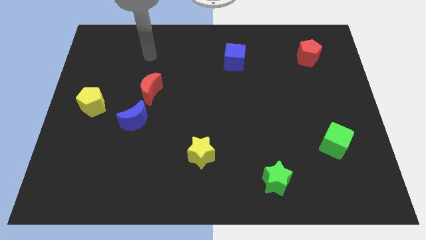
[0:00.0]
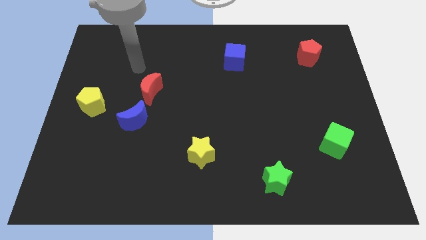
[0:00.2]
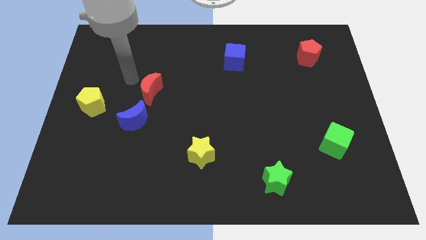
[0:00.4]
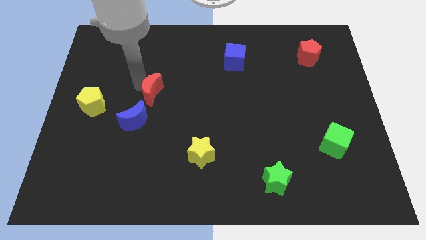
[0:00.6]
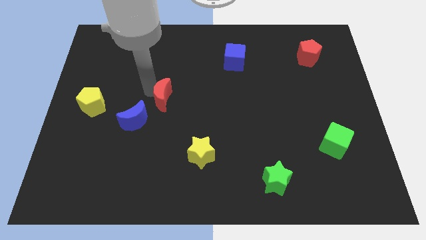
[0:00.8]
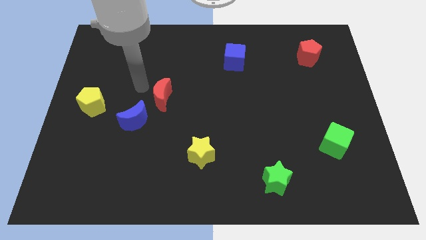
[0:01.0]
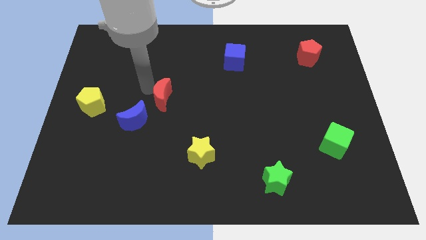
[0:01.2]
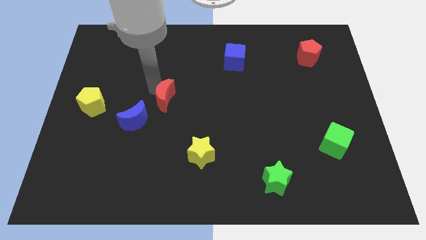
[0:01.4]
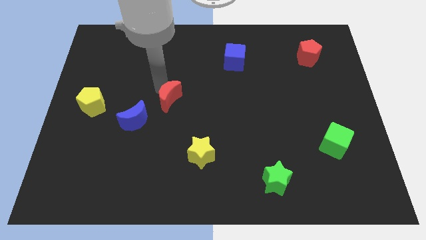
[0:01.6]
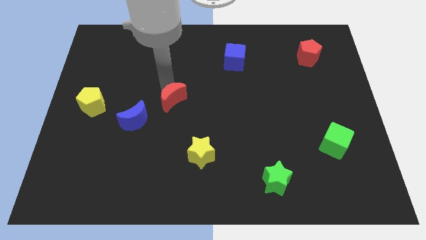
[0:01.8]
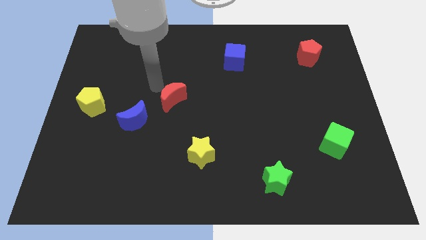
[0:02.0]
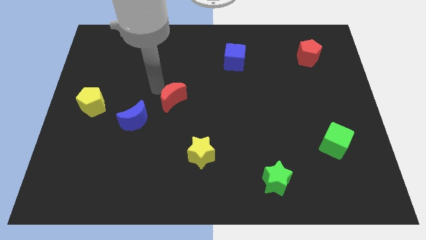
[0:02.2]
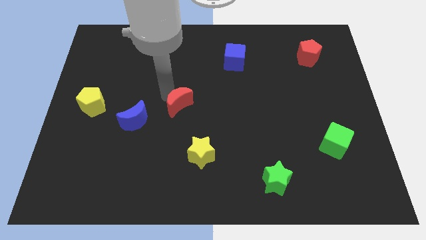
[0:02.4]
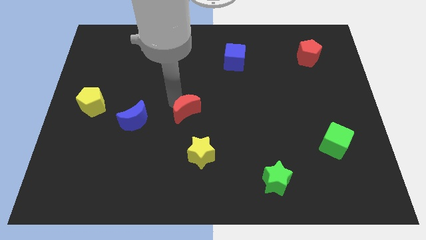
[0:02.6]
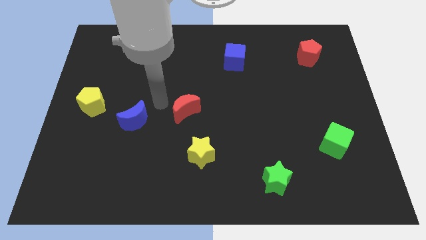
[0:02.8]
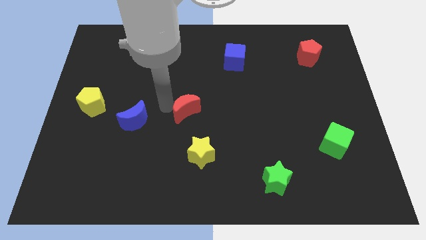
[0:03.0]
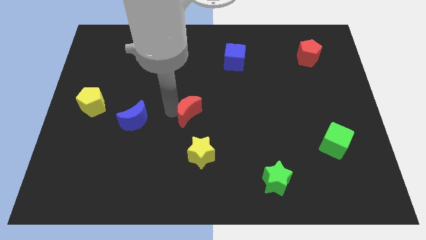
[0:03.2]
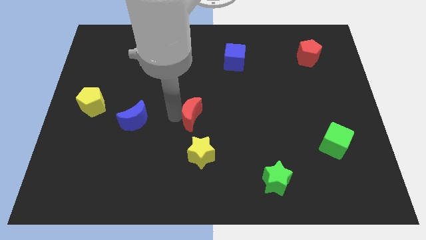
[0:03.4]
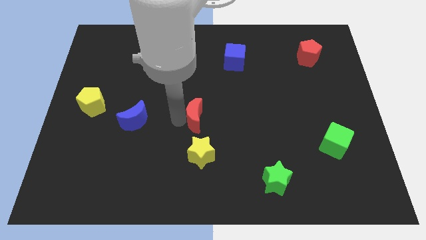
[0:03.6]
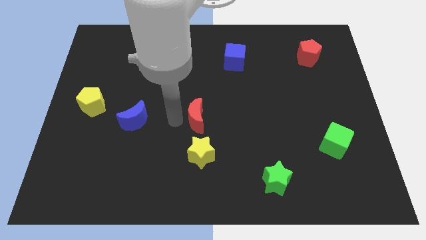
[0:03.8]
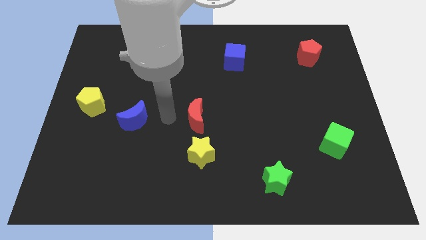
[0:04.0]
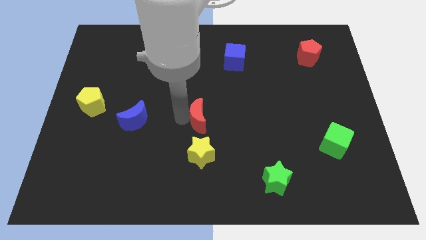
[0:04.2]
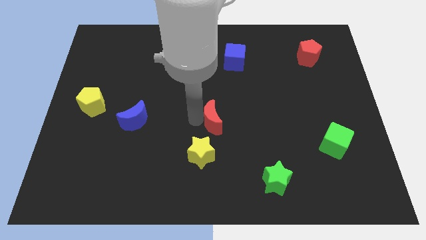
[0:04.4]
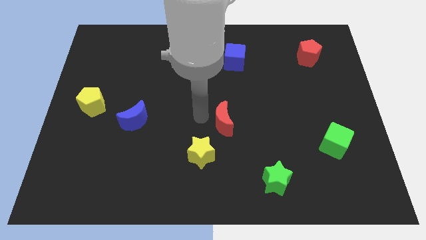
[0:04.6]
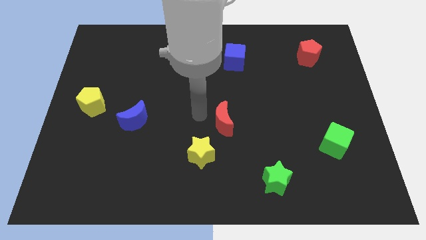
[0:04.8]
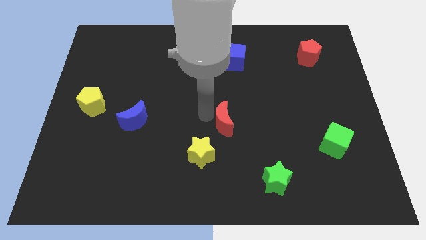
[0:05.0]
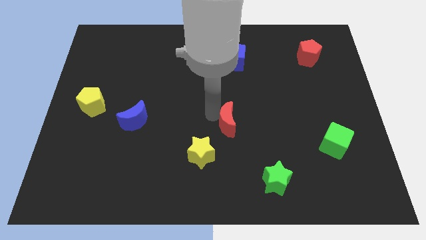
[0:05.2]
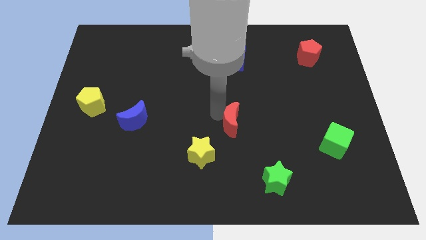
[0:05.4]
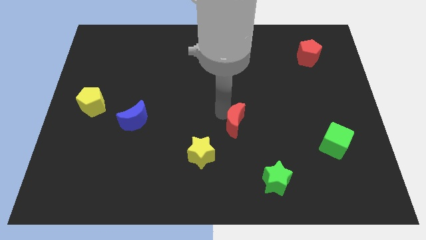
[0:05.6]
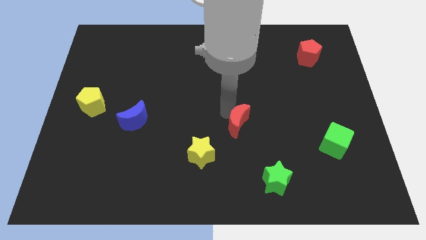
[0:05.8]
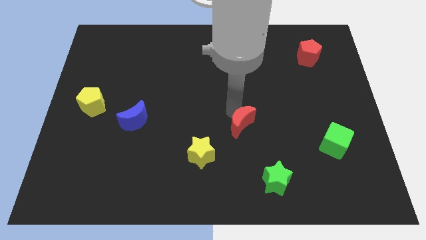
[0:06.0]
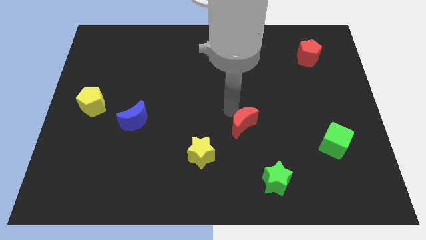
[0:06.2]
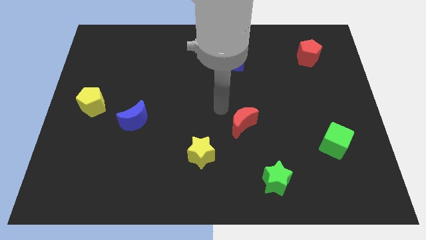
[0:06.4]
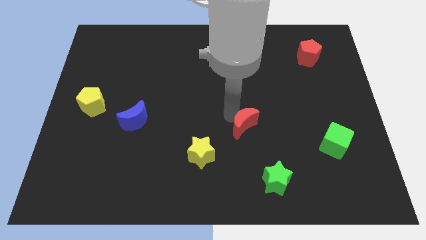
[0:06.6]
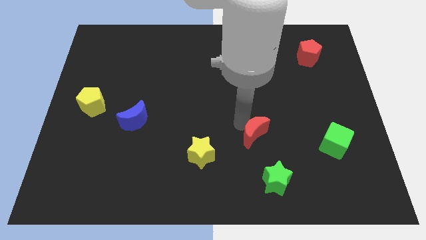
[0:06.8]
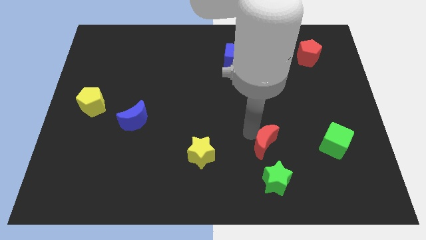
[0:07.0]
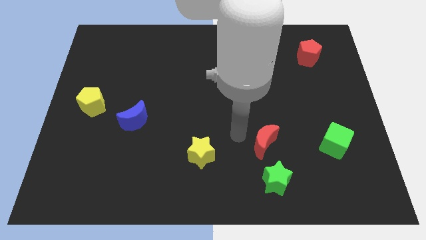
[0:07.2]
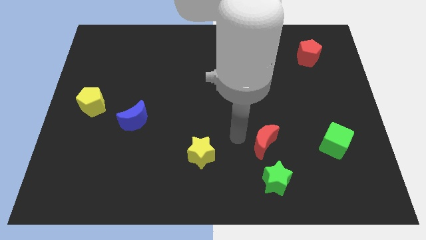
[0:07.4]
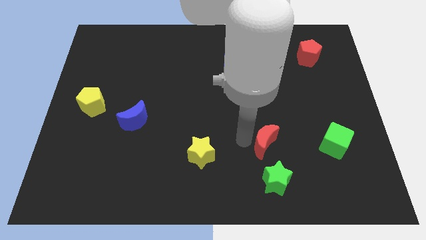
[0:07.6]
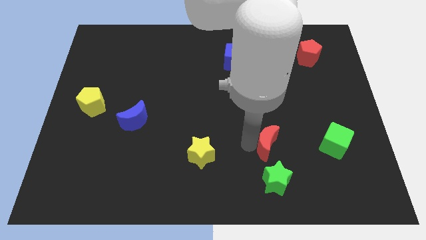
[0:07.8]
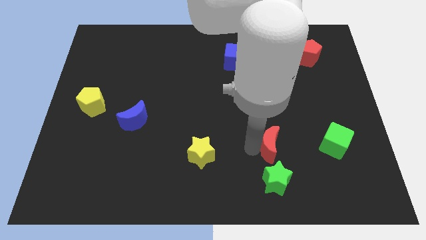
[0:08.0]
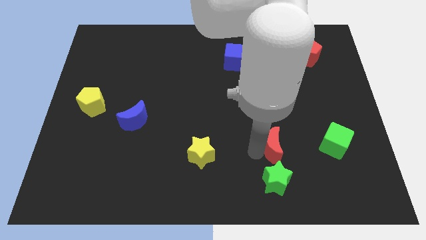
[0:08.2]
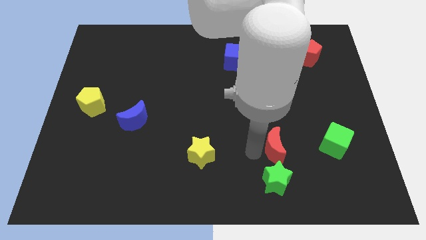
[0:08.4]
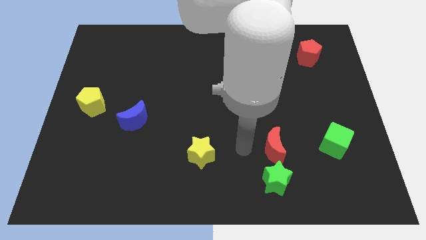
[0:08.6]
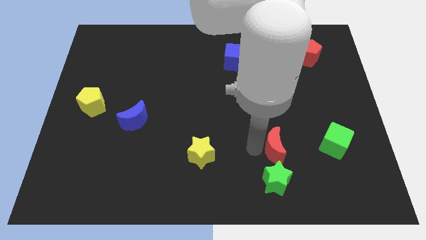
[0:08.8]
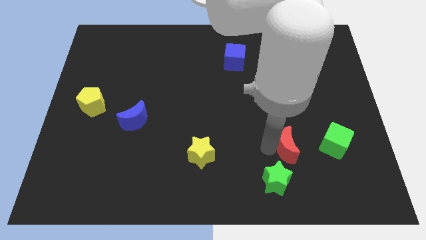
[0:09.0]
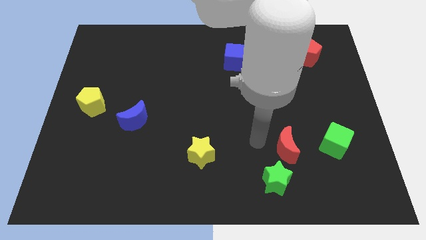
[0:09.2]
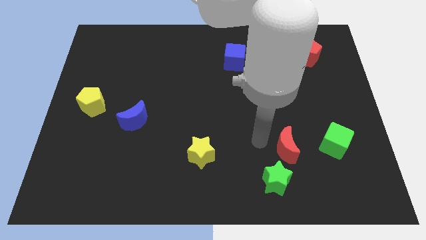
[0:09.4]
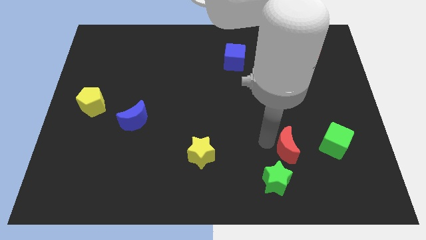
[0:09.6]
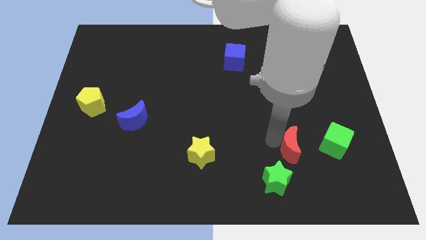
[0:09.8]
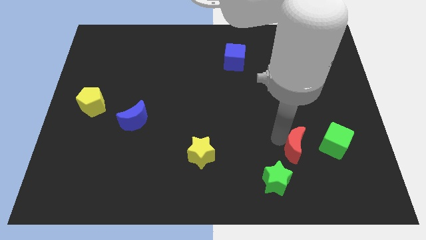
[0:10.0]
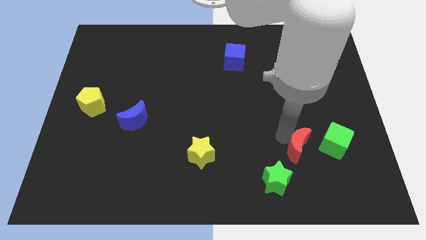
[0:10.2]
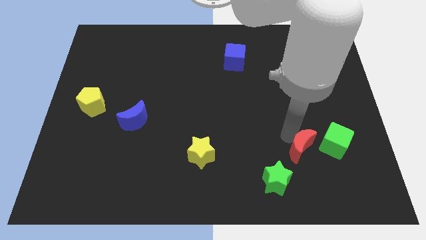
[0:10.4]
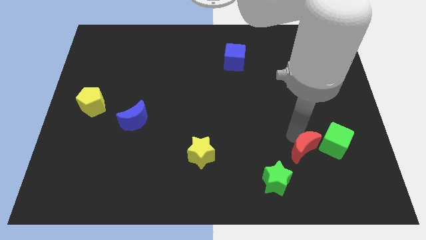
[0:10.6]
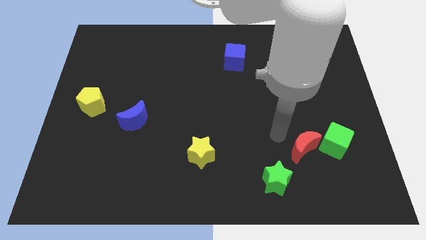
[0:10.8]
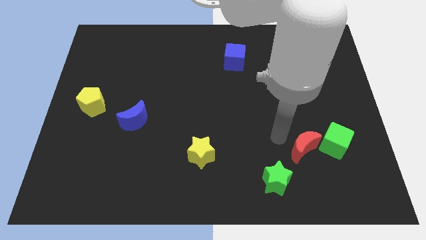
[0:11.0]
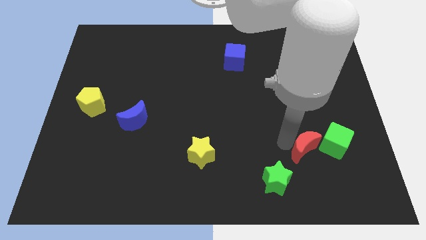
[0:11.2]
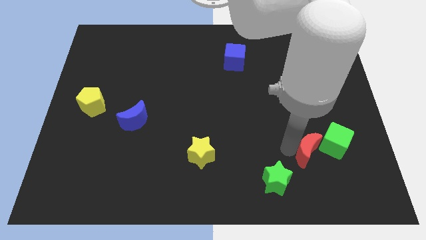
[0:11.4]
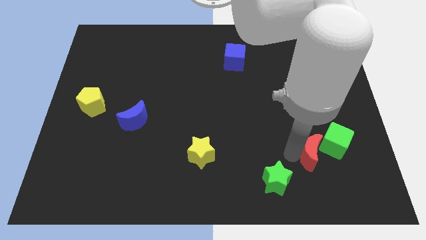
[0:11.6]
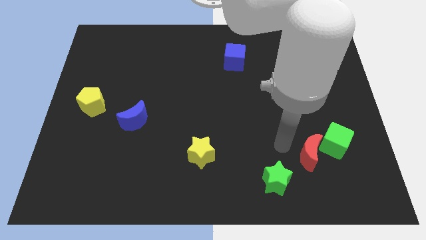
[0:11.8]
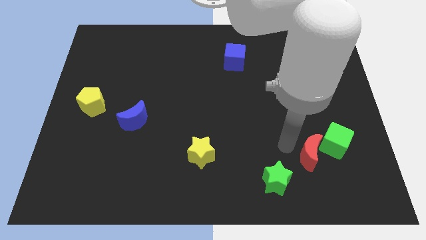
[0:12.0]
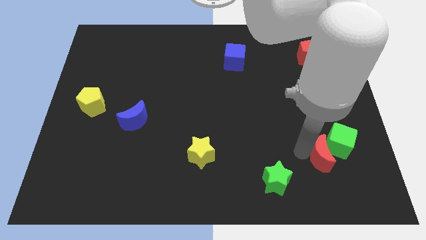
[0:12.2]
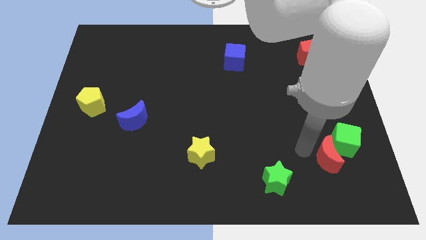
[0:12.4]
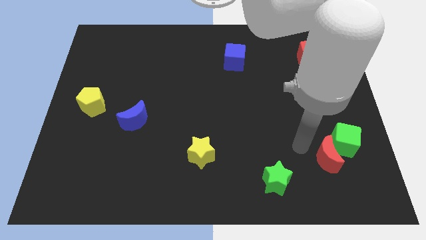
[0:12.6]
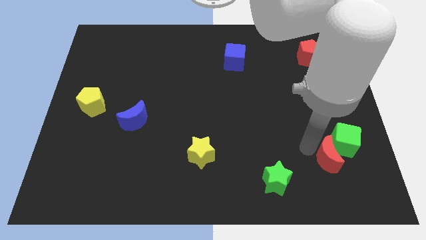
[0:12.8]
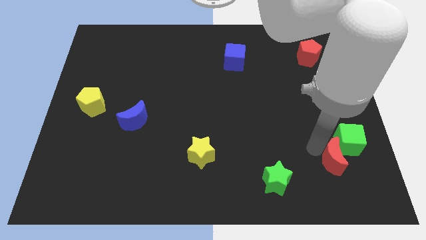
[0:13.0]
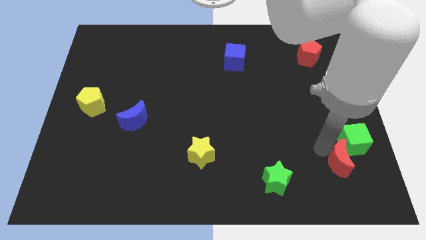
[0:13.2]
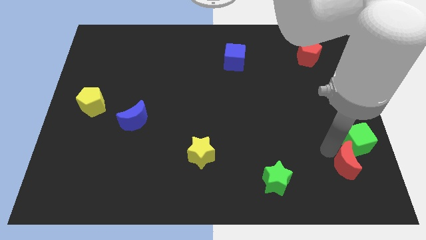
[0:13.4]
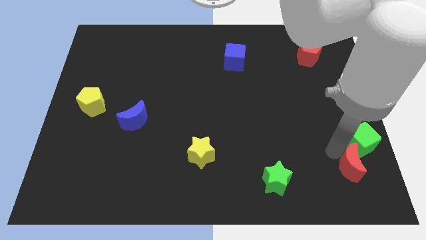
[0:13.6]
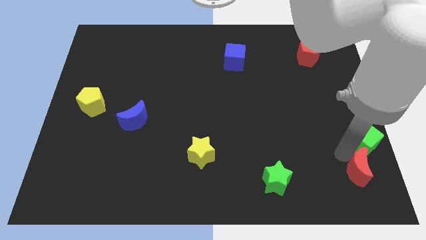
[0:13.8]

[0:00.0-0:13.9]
put the red moon to the bottom right
